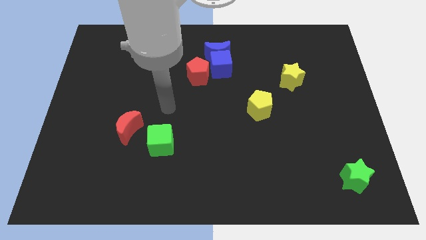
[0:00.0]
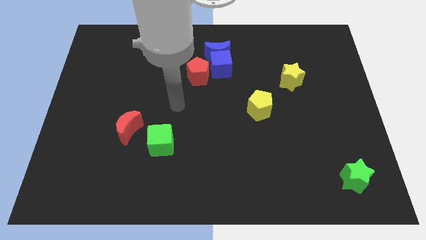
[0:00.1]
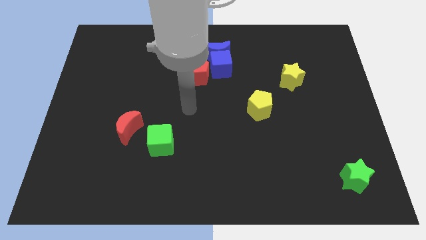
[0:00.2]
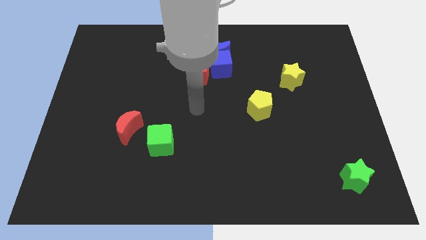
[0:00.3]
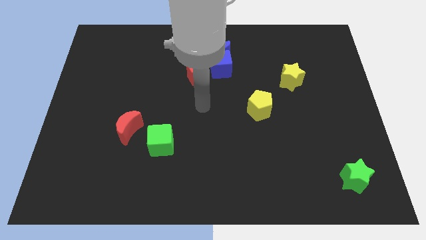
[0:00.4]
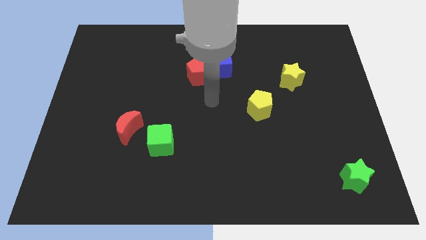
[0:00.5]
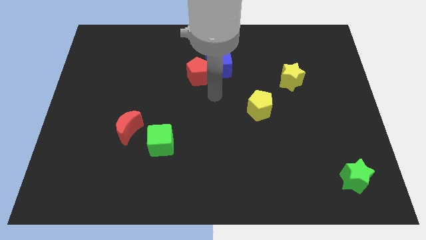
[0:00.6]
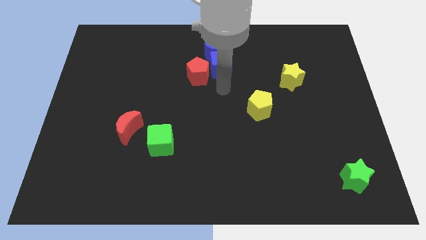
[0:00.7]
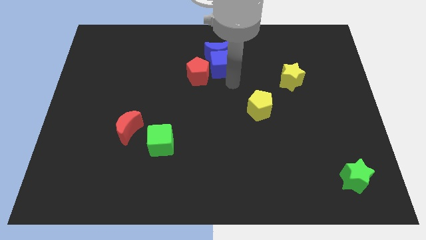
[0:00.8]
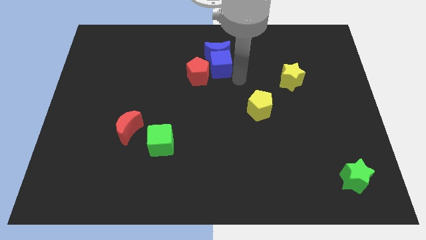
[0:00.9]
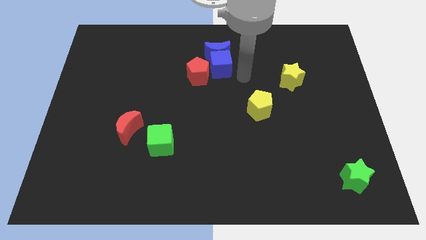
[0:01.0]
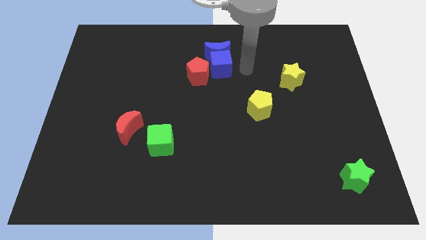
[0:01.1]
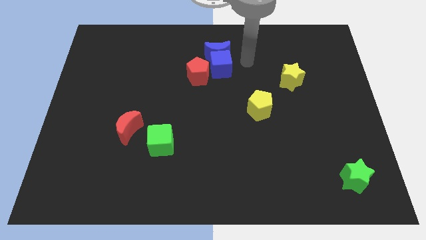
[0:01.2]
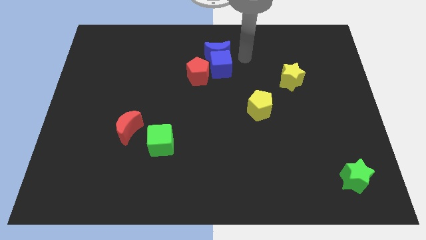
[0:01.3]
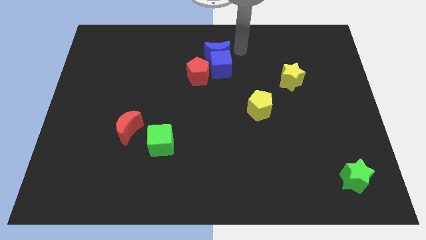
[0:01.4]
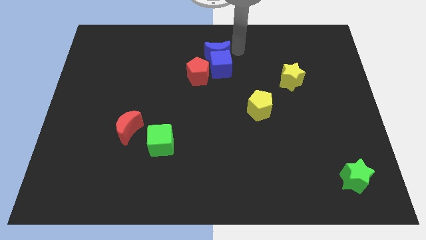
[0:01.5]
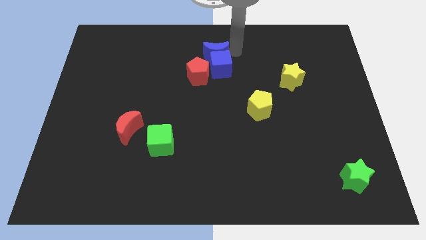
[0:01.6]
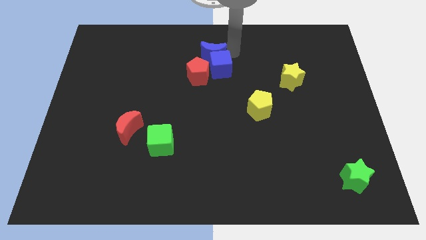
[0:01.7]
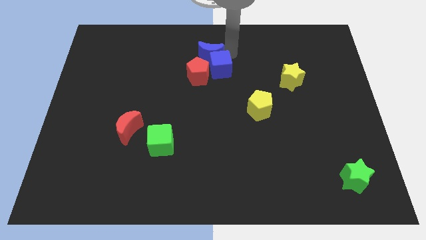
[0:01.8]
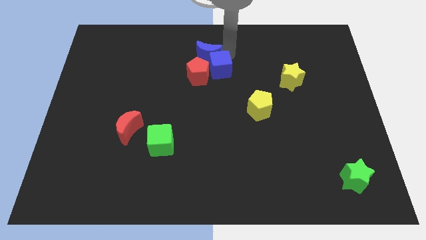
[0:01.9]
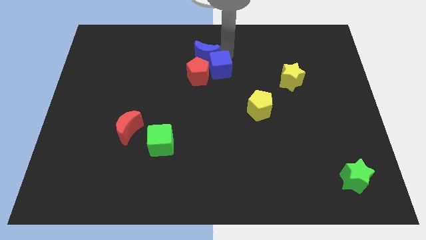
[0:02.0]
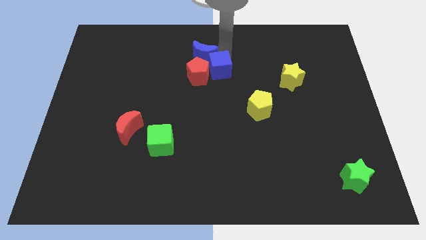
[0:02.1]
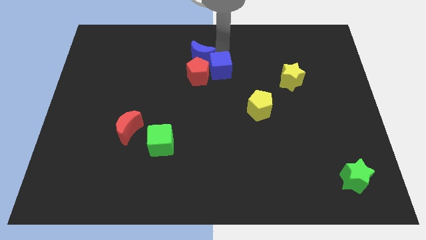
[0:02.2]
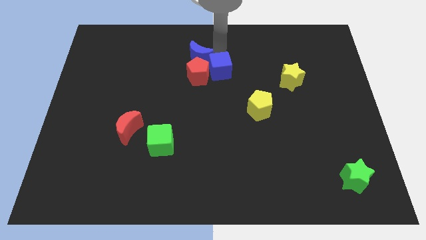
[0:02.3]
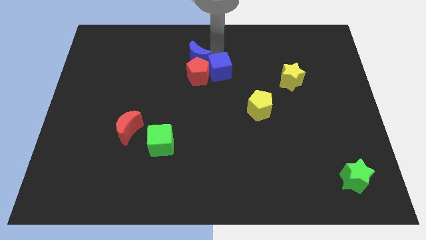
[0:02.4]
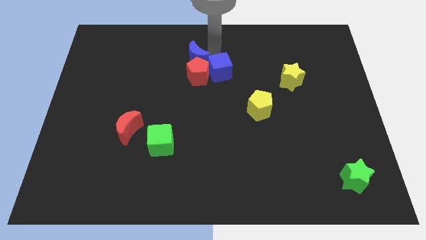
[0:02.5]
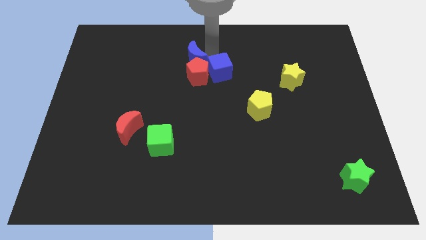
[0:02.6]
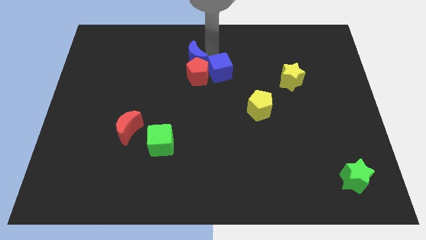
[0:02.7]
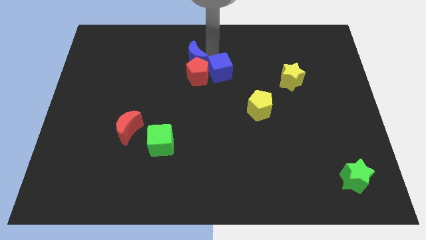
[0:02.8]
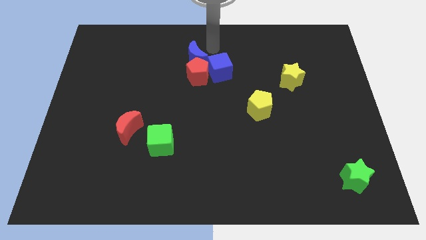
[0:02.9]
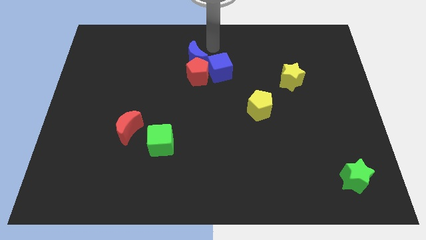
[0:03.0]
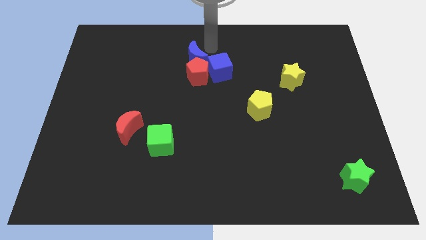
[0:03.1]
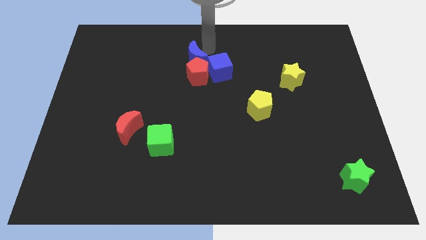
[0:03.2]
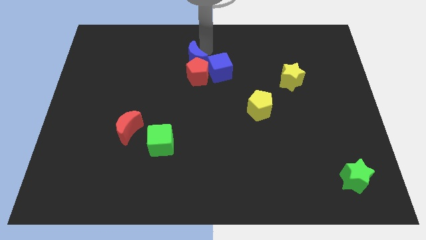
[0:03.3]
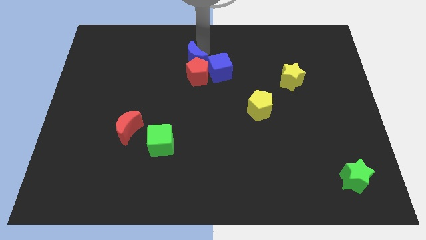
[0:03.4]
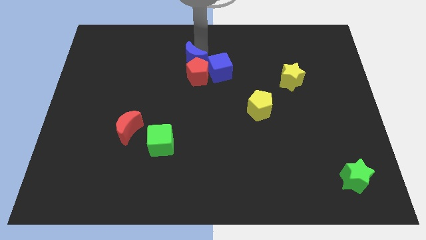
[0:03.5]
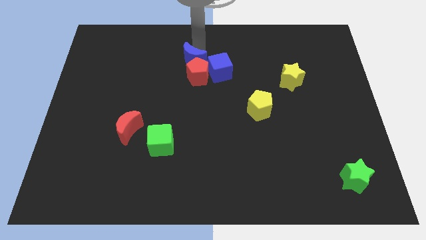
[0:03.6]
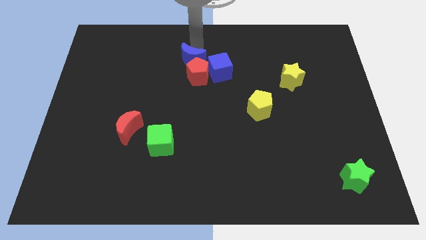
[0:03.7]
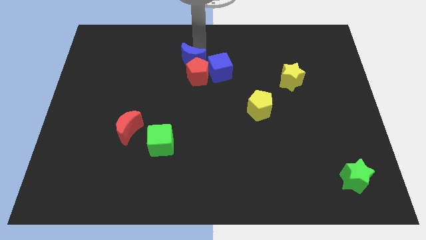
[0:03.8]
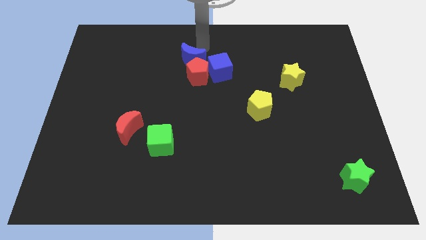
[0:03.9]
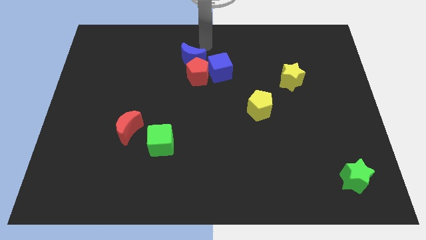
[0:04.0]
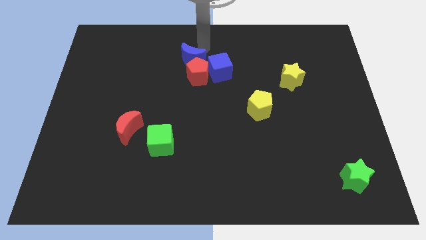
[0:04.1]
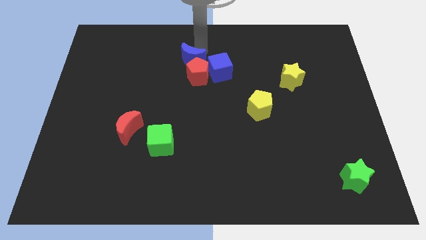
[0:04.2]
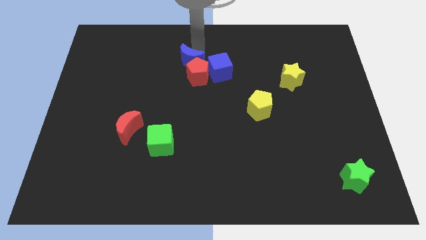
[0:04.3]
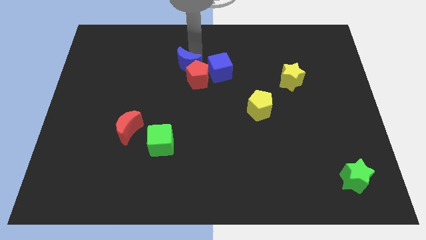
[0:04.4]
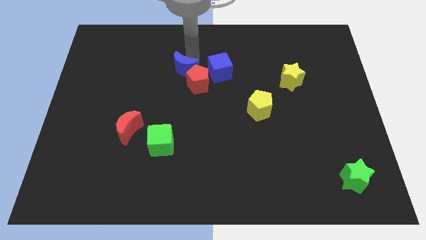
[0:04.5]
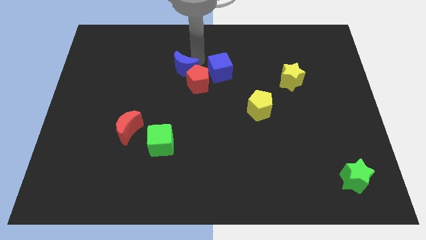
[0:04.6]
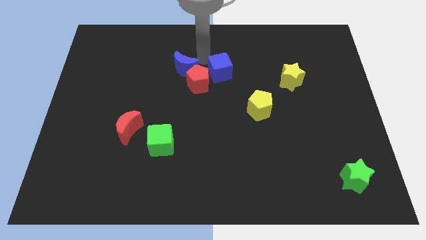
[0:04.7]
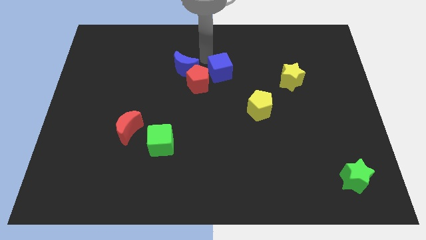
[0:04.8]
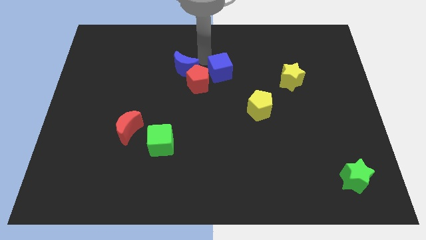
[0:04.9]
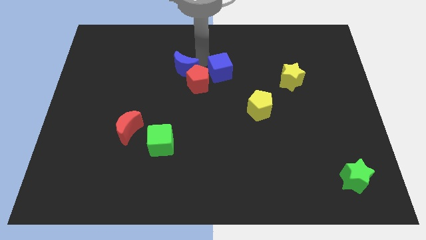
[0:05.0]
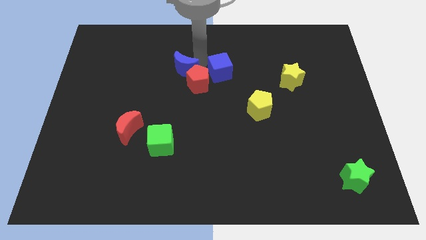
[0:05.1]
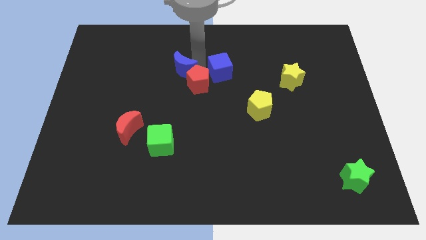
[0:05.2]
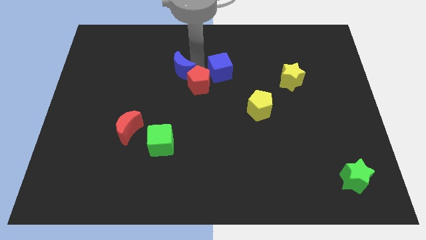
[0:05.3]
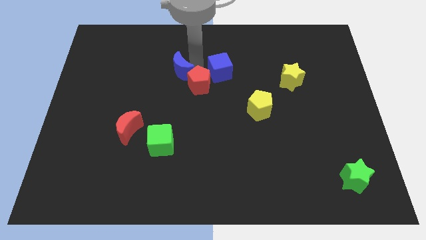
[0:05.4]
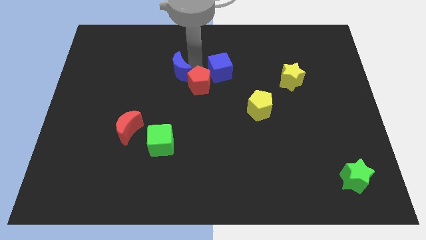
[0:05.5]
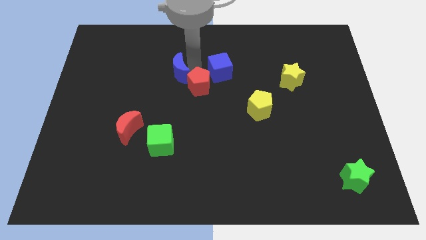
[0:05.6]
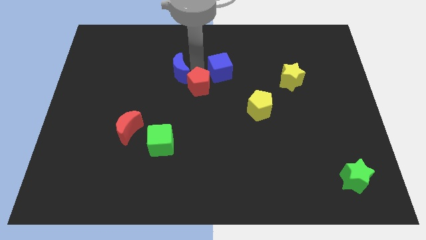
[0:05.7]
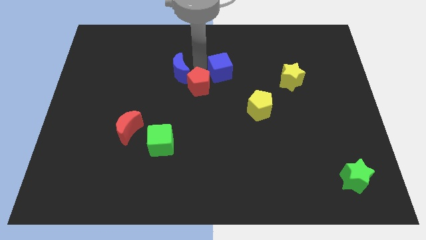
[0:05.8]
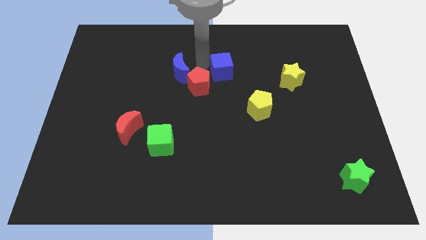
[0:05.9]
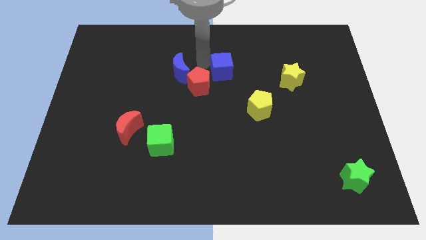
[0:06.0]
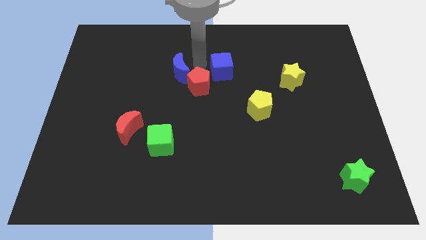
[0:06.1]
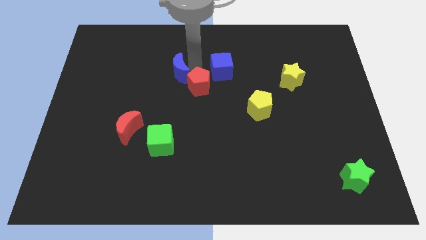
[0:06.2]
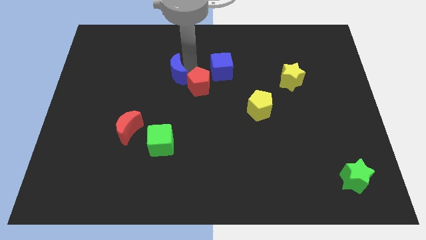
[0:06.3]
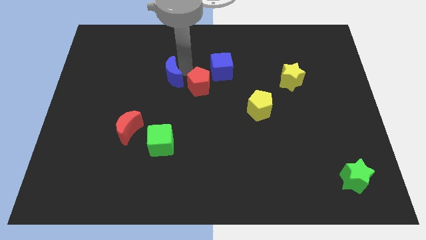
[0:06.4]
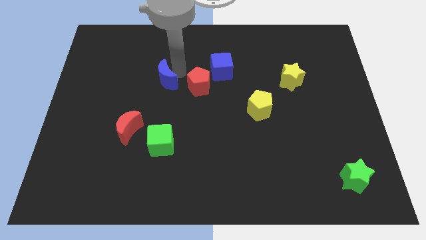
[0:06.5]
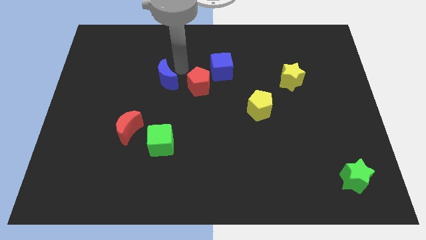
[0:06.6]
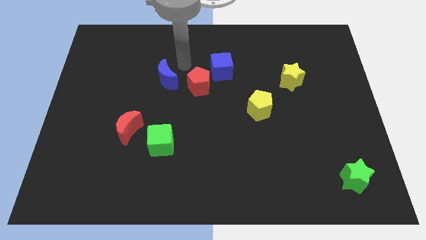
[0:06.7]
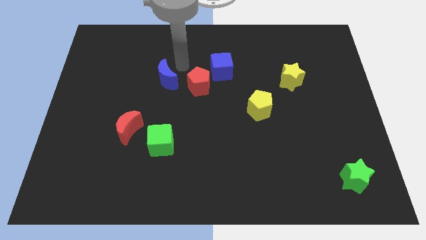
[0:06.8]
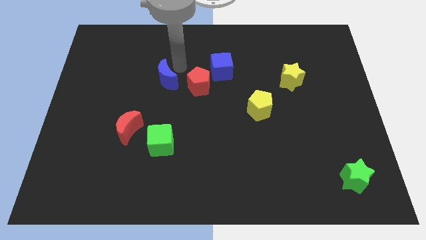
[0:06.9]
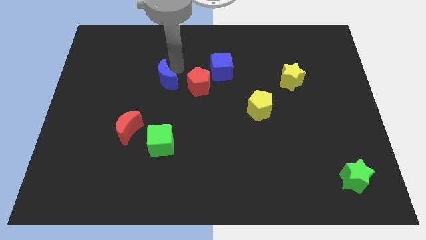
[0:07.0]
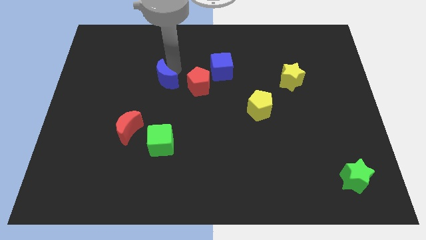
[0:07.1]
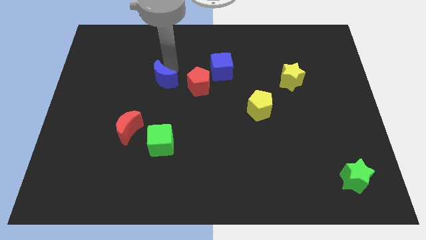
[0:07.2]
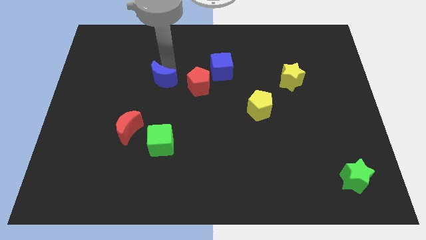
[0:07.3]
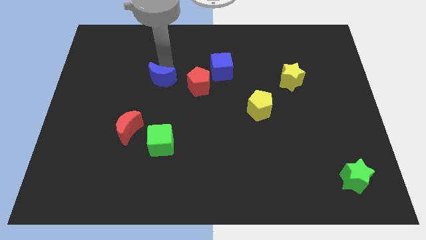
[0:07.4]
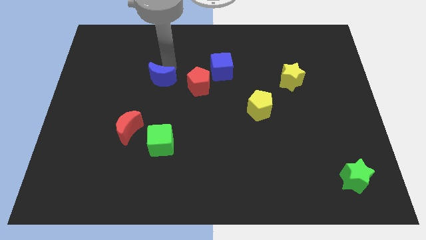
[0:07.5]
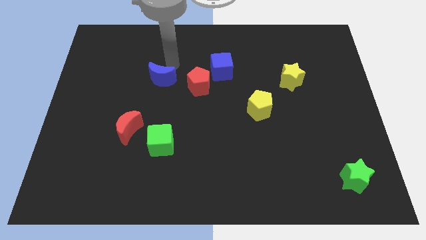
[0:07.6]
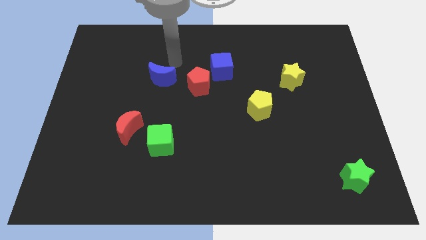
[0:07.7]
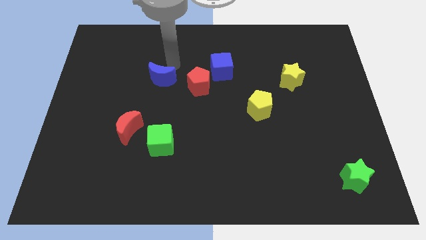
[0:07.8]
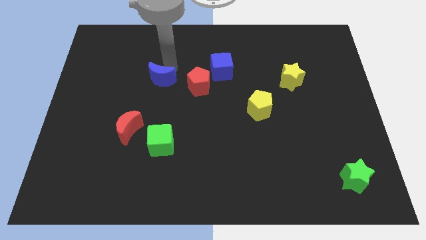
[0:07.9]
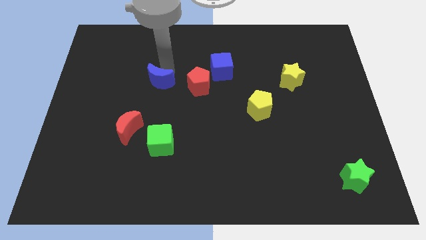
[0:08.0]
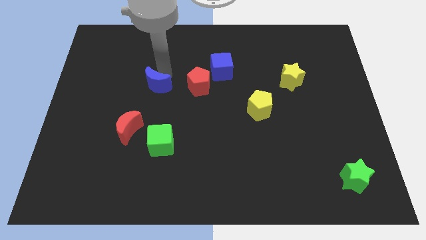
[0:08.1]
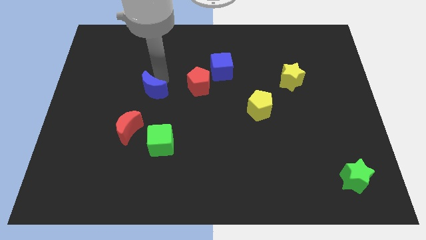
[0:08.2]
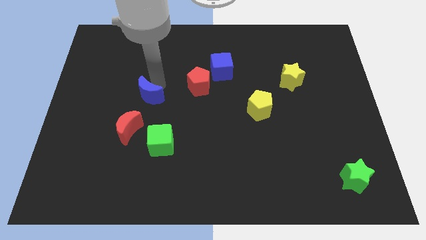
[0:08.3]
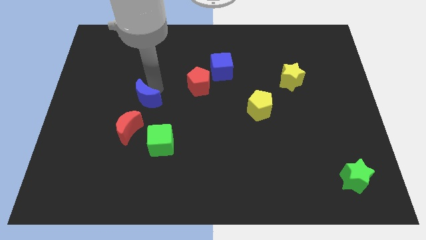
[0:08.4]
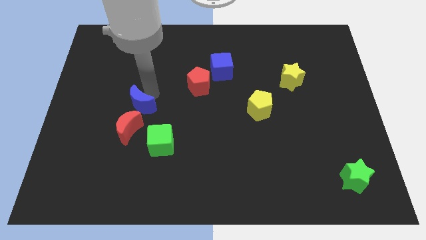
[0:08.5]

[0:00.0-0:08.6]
push the blue moon to the top left side of the green cube
